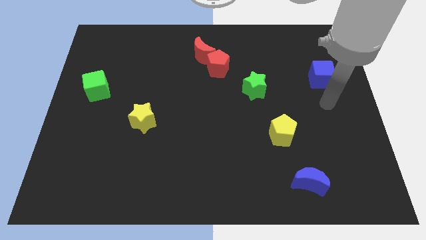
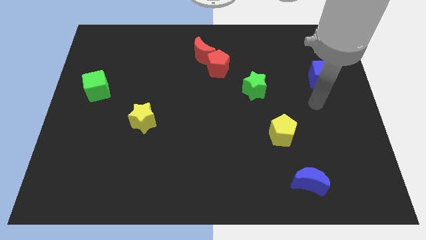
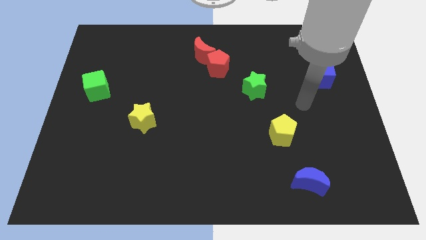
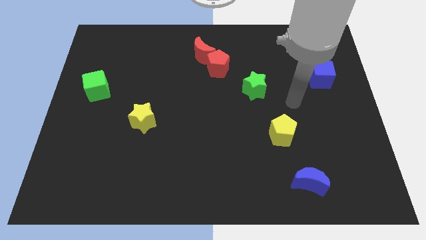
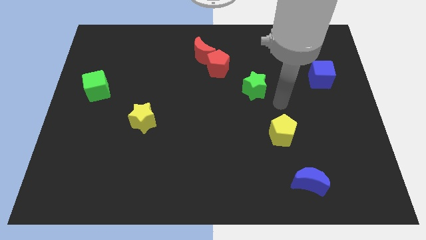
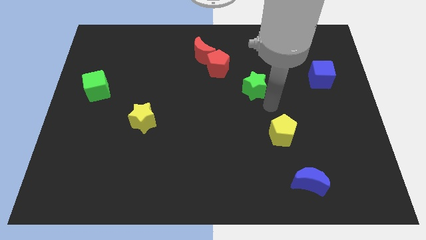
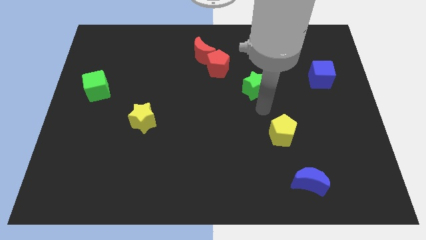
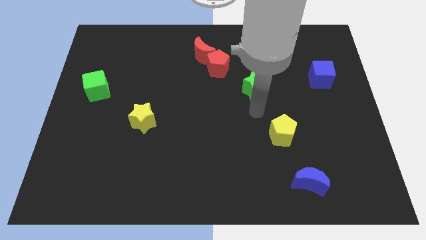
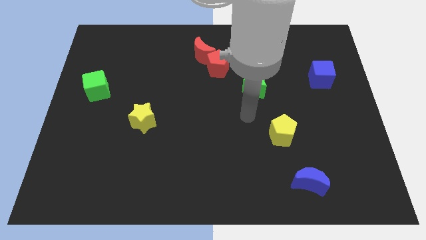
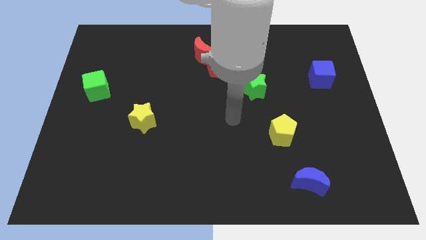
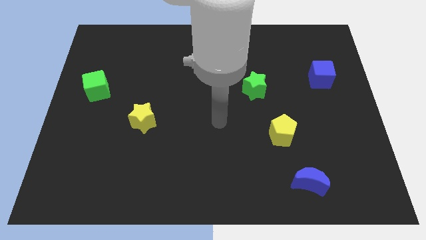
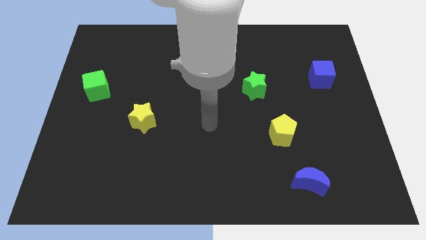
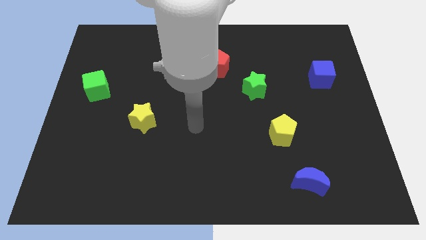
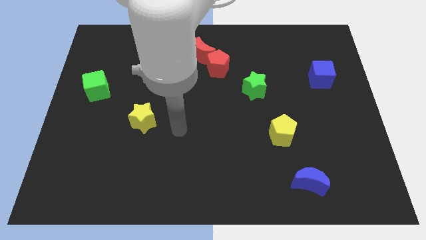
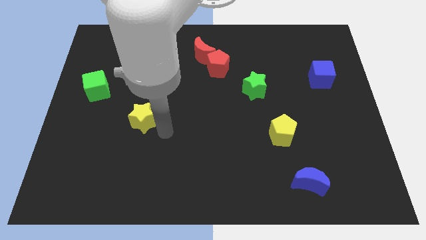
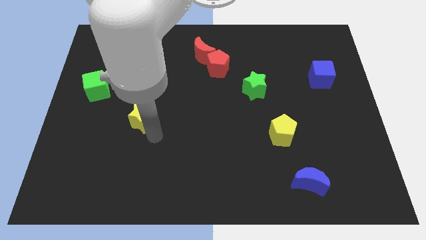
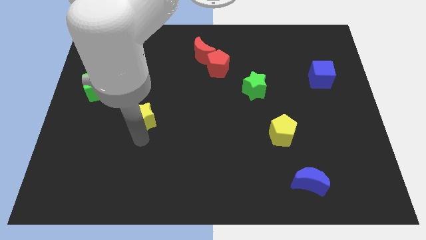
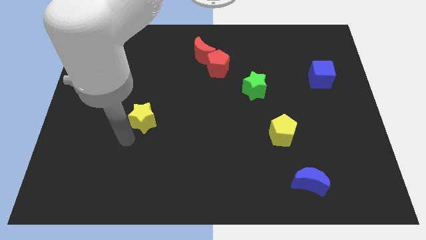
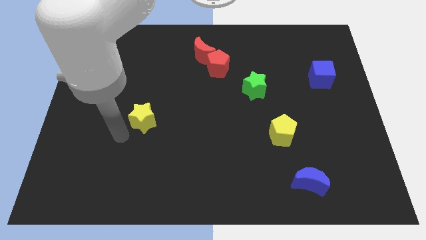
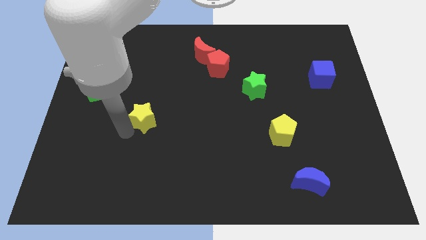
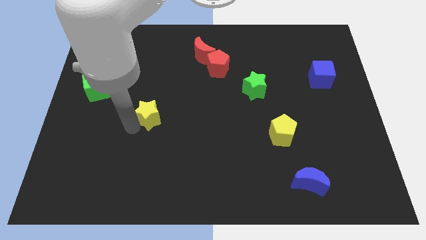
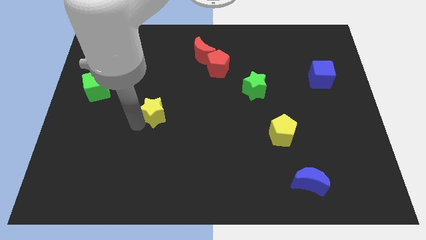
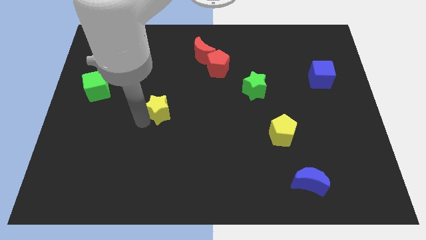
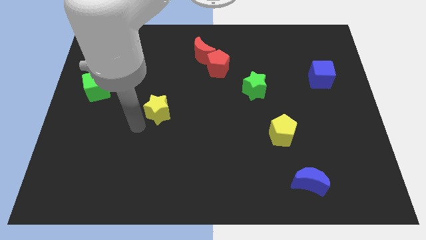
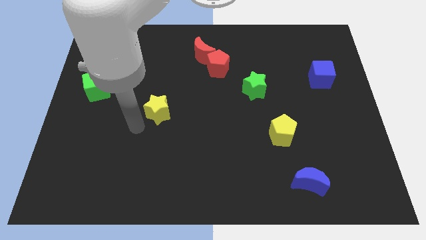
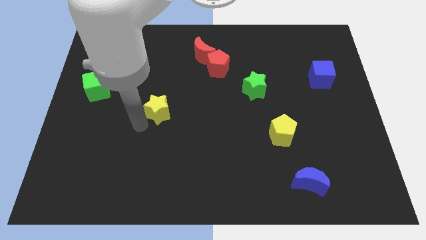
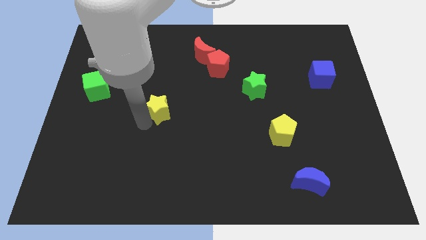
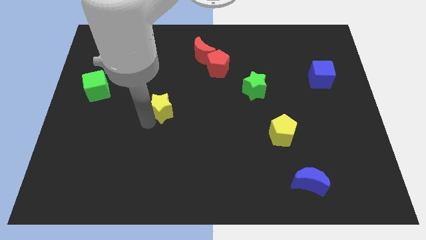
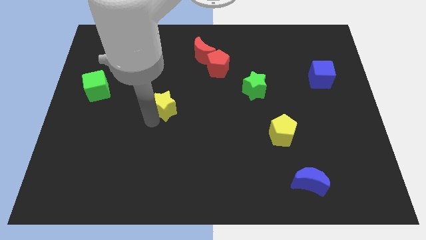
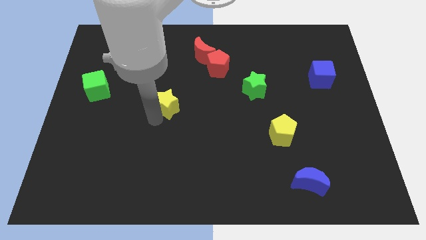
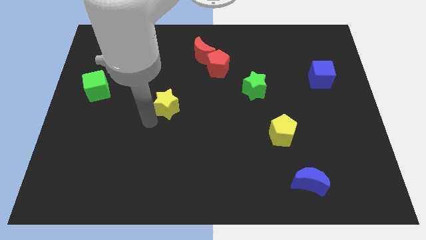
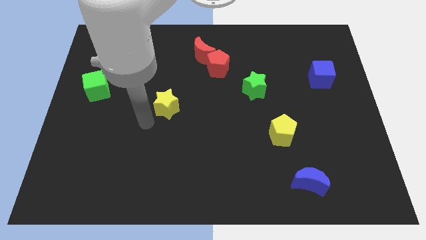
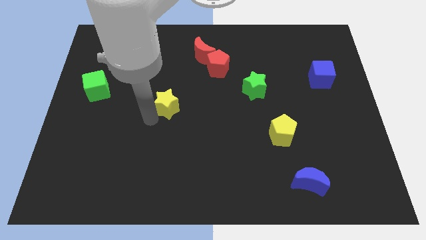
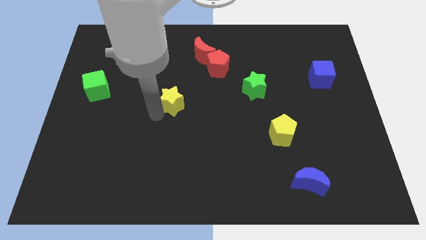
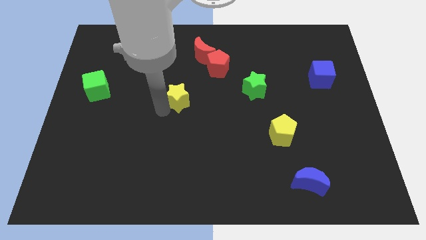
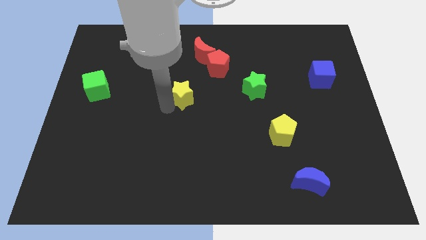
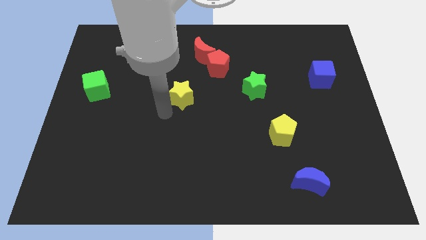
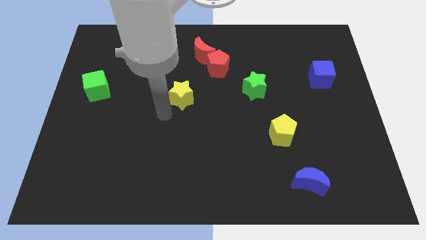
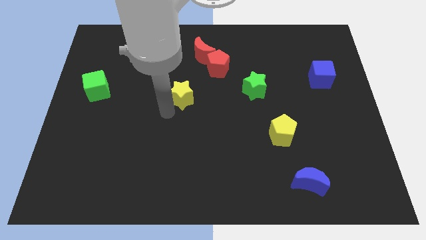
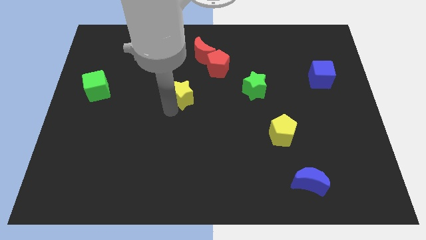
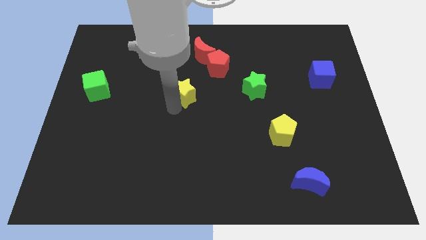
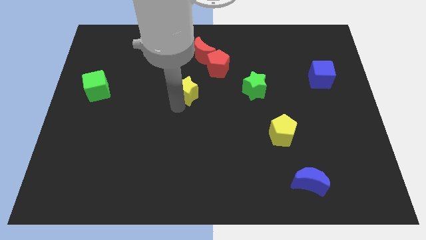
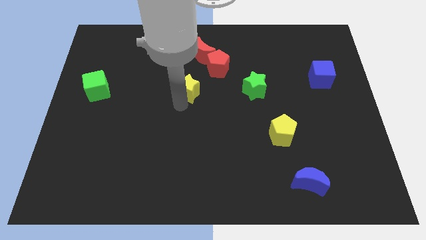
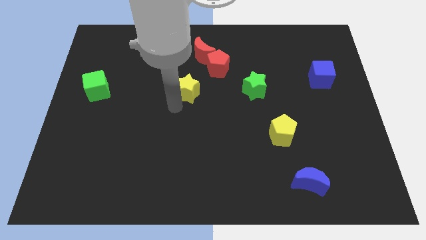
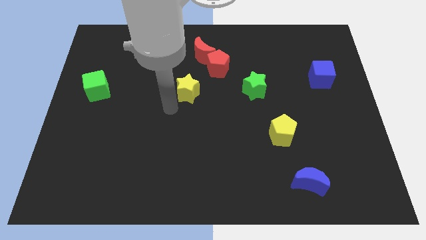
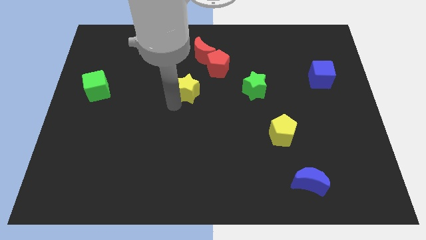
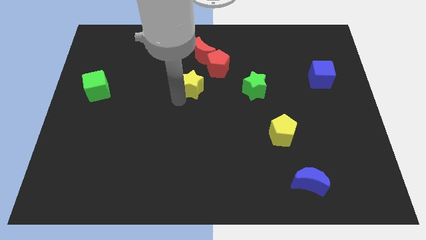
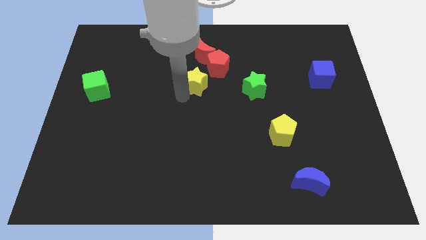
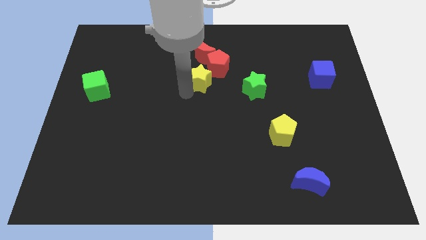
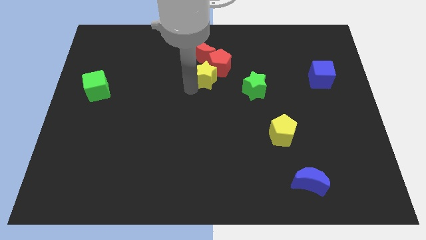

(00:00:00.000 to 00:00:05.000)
slide the yellow star close to the red pentagon

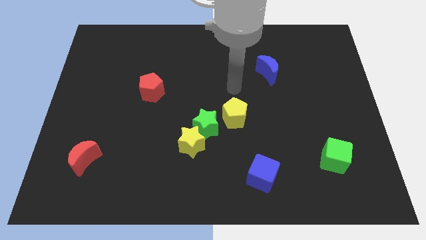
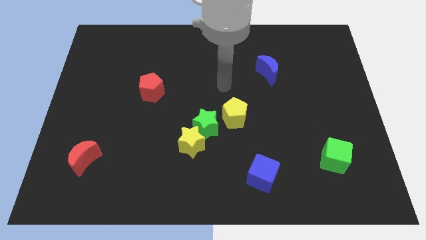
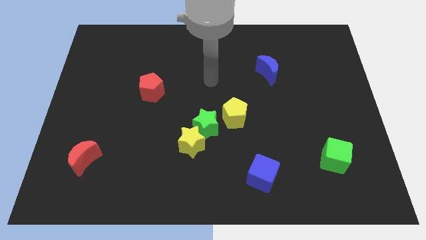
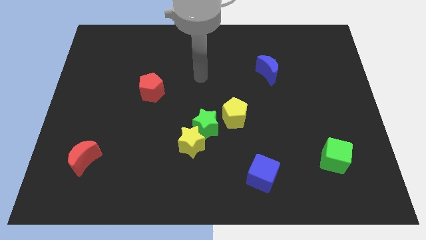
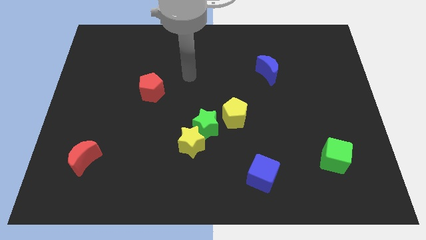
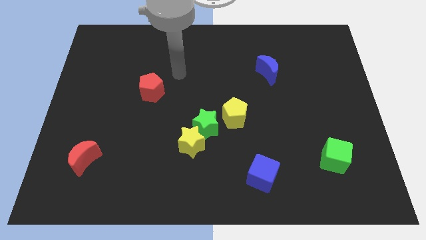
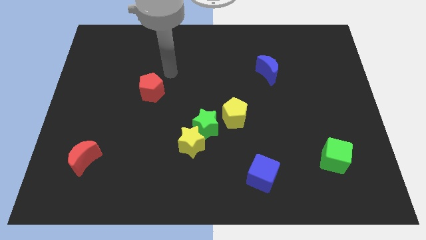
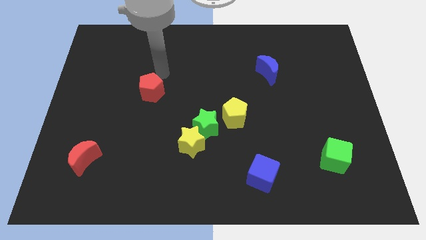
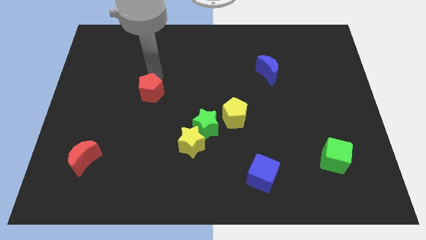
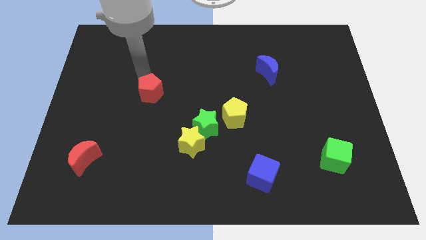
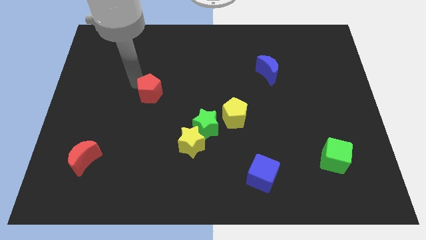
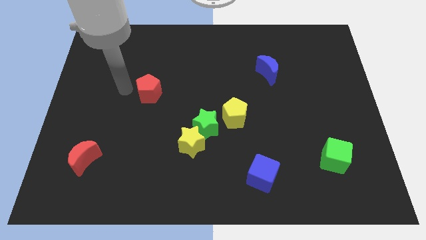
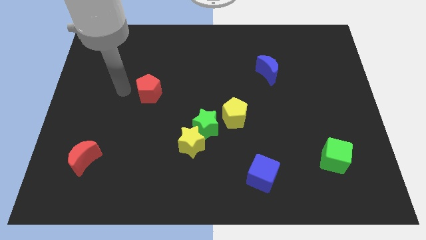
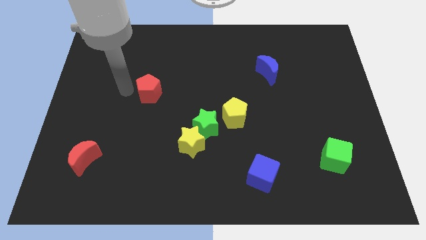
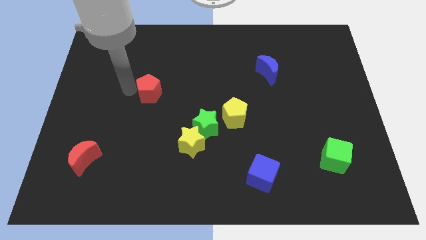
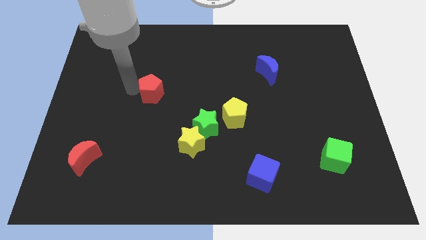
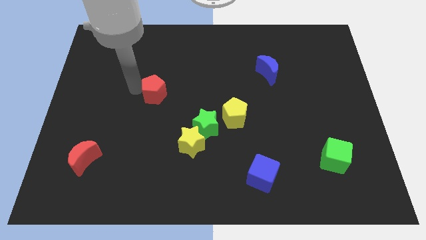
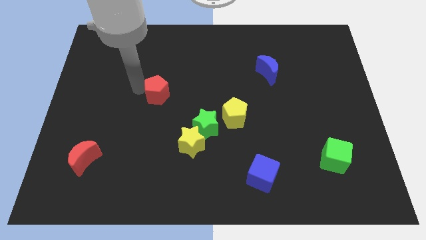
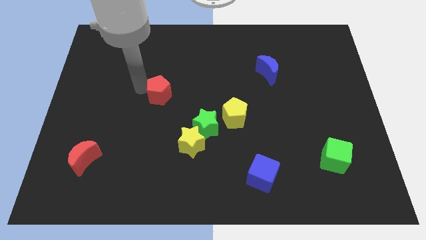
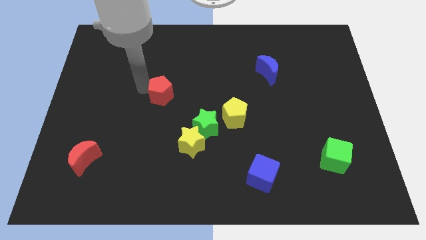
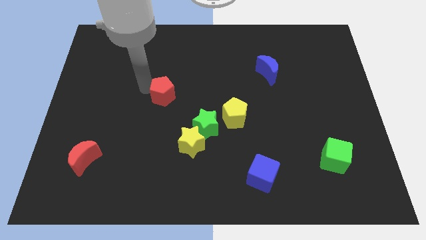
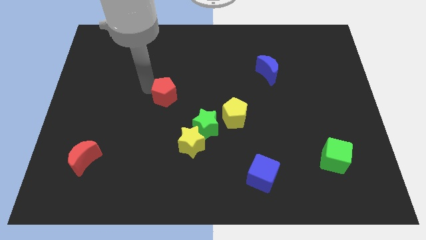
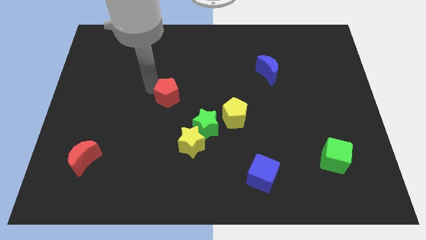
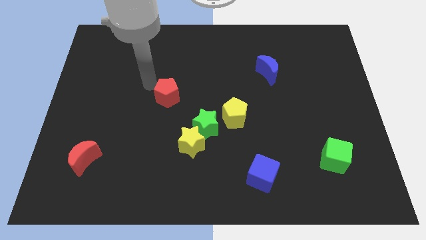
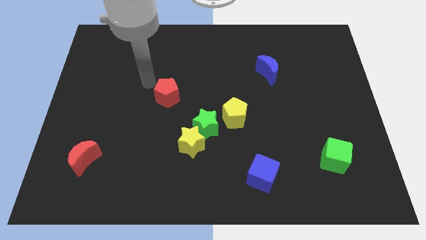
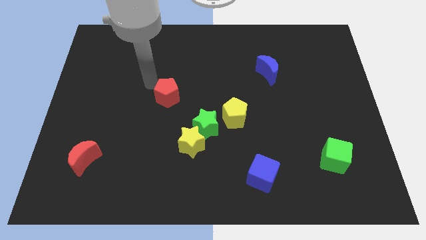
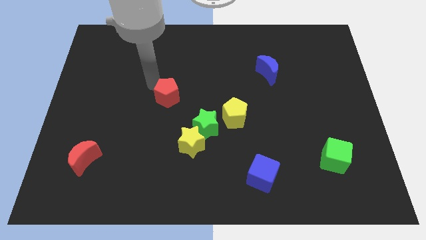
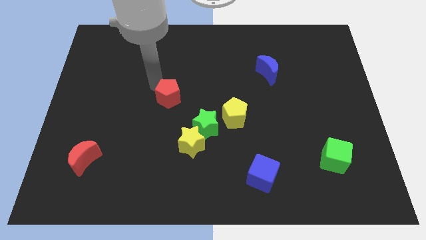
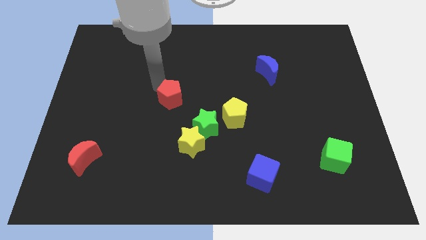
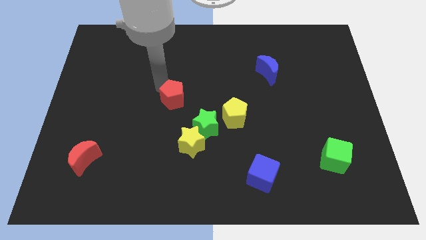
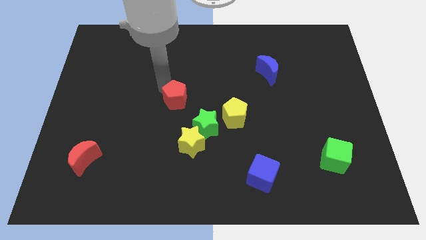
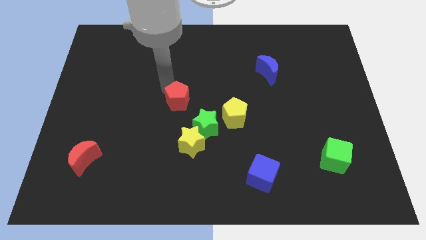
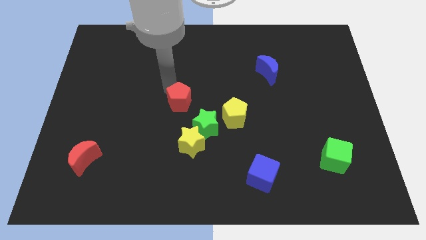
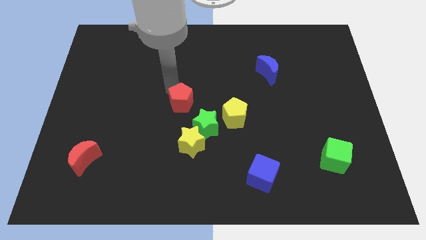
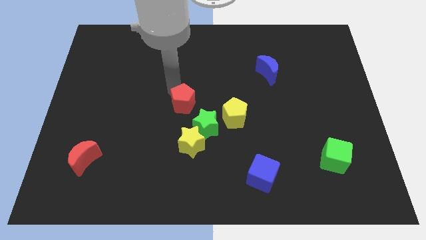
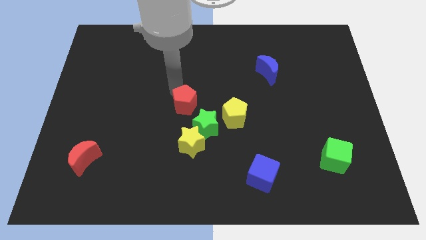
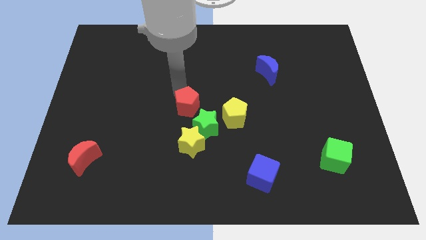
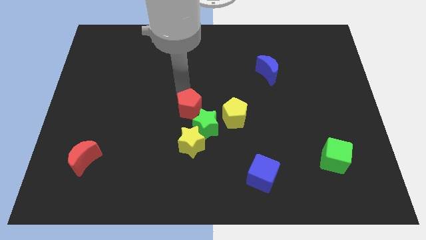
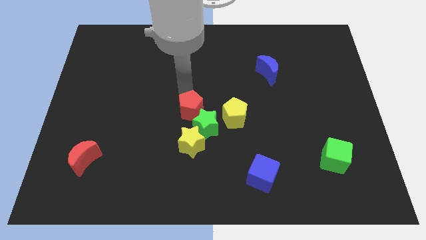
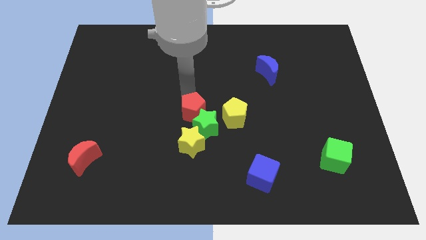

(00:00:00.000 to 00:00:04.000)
put the red pentagon towards the green star
